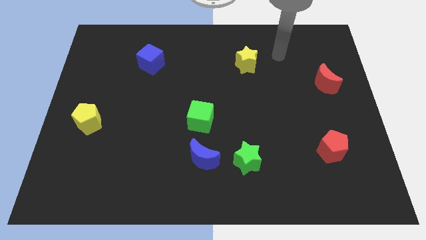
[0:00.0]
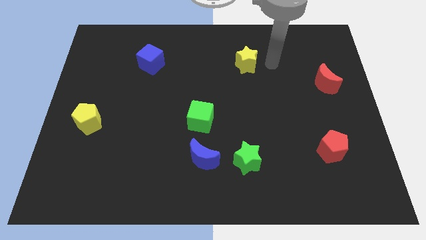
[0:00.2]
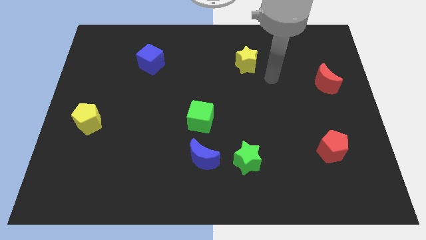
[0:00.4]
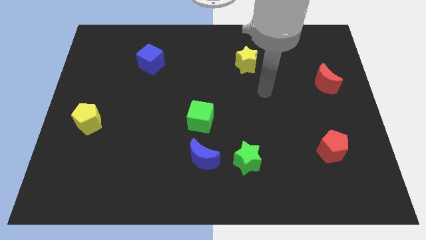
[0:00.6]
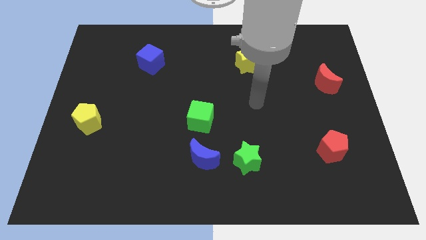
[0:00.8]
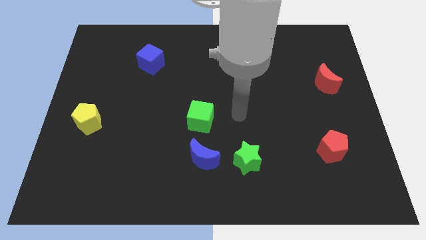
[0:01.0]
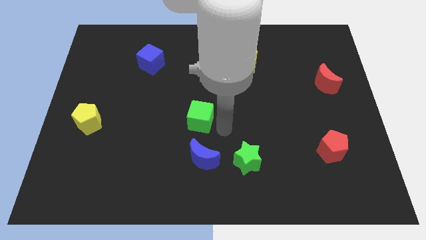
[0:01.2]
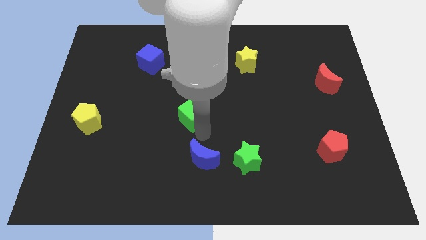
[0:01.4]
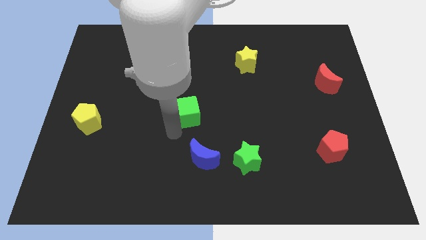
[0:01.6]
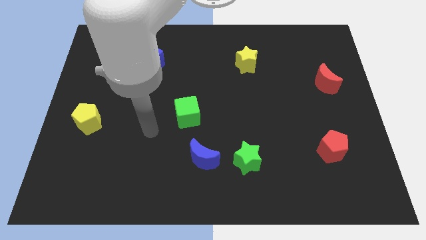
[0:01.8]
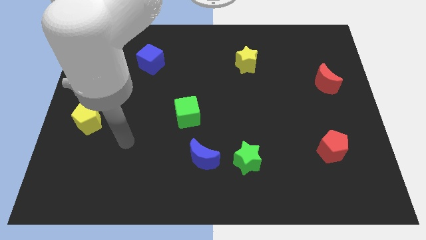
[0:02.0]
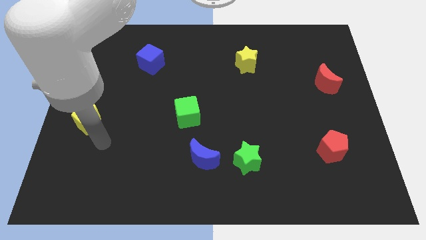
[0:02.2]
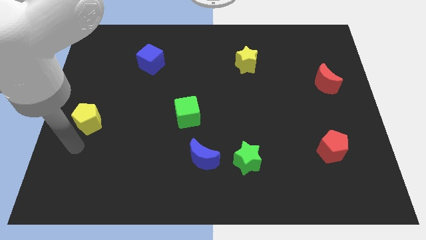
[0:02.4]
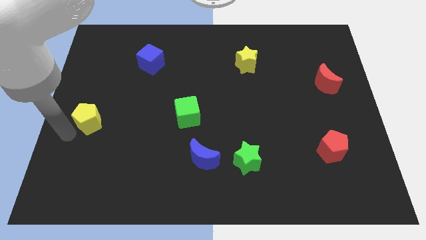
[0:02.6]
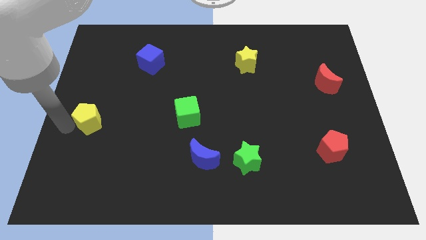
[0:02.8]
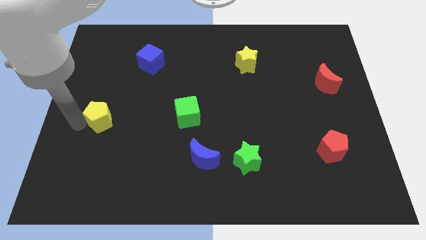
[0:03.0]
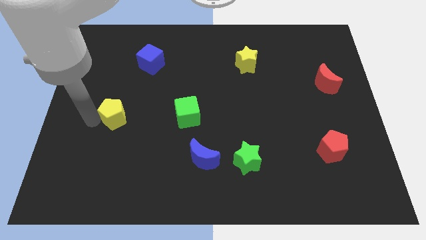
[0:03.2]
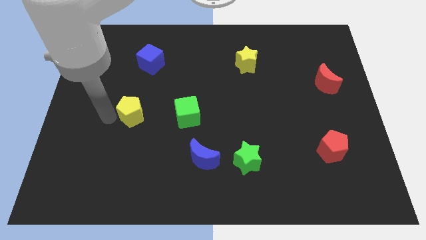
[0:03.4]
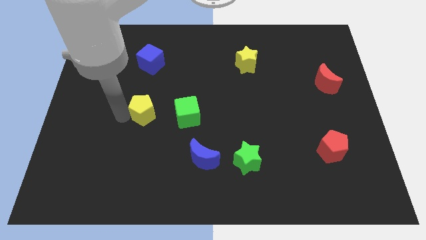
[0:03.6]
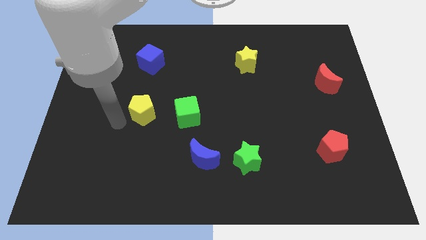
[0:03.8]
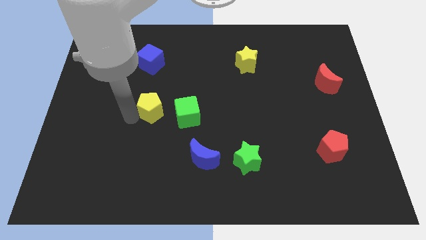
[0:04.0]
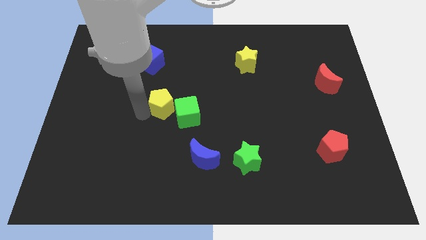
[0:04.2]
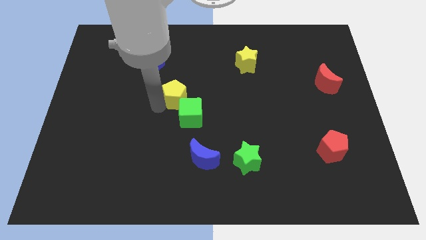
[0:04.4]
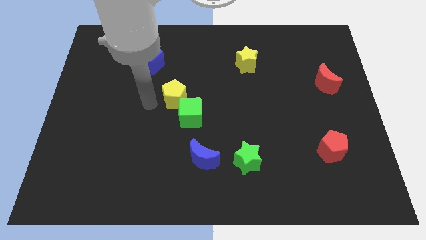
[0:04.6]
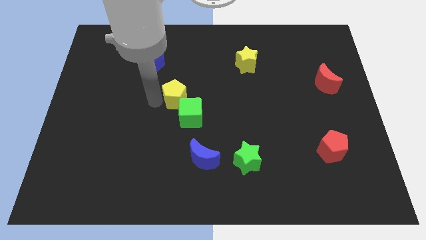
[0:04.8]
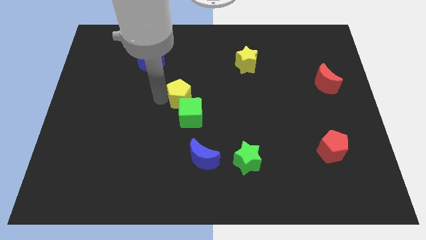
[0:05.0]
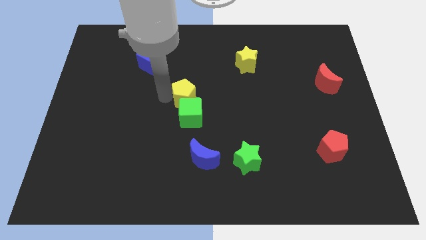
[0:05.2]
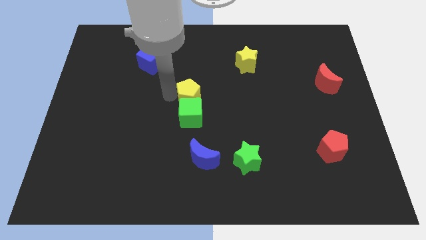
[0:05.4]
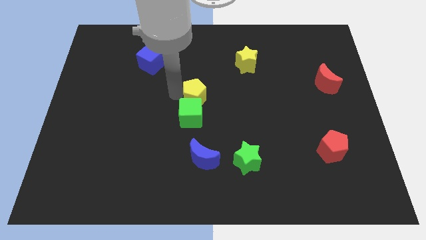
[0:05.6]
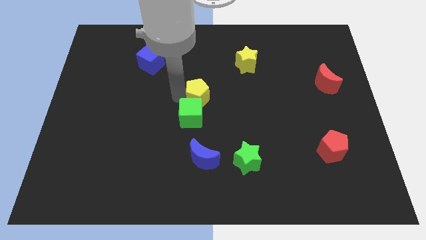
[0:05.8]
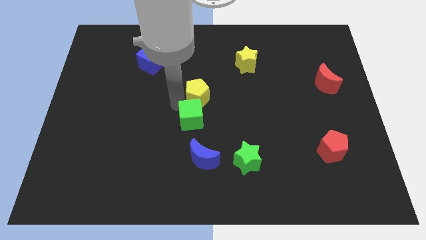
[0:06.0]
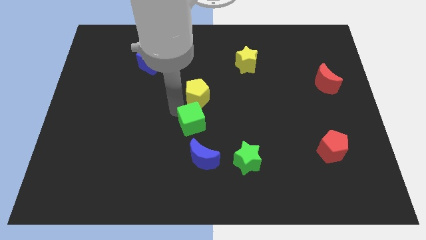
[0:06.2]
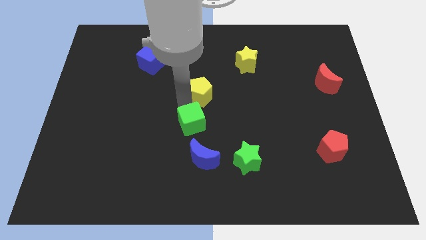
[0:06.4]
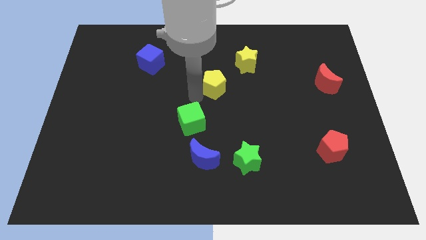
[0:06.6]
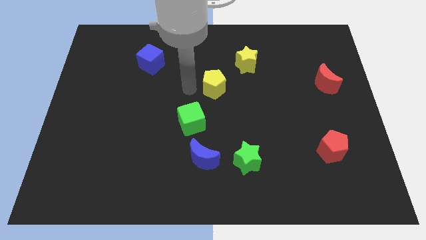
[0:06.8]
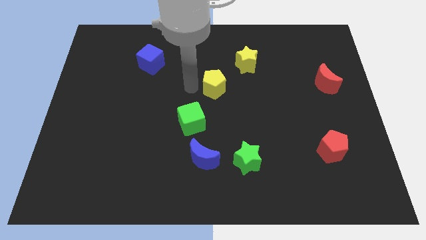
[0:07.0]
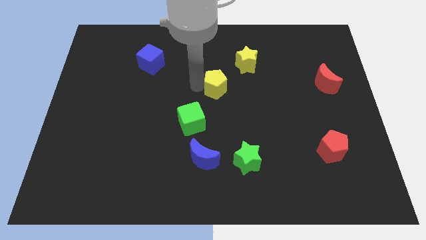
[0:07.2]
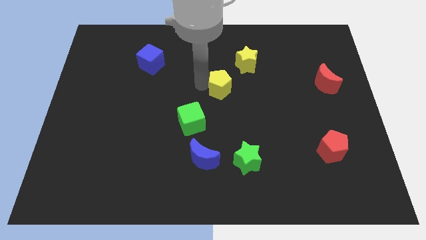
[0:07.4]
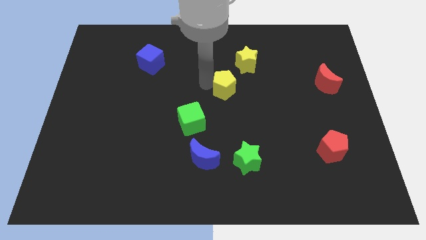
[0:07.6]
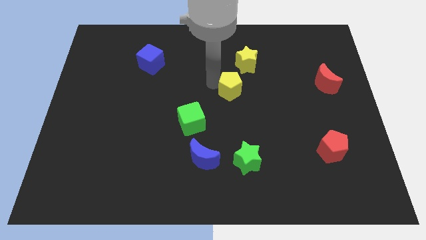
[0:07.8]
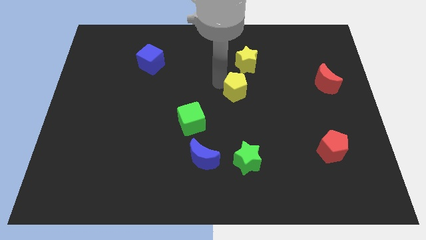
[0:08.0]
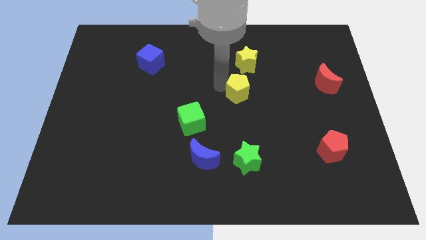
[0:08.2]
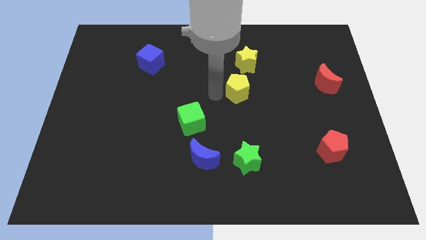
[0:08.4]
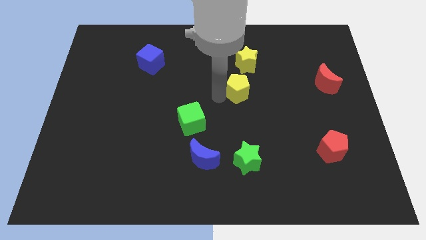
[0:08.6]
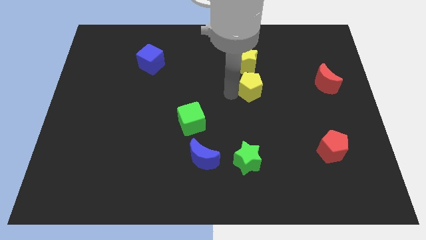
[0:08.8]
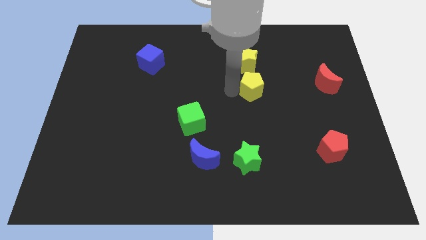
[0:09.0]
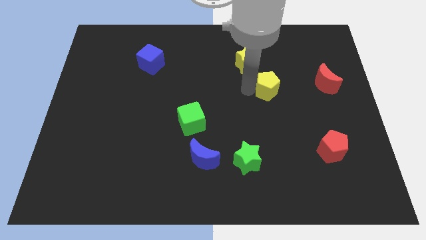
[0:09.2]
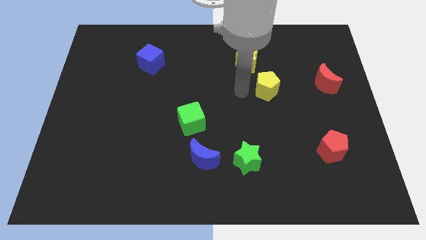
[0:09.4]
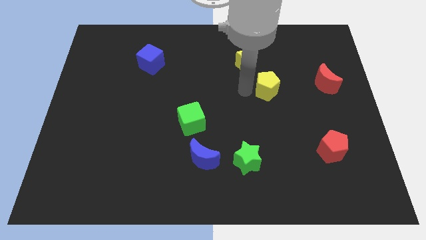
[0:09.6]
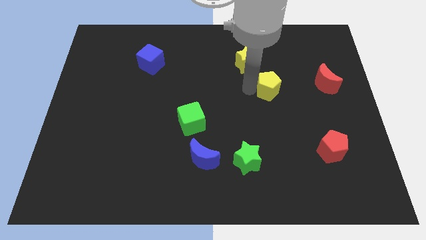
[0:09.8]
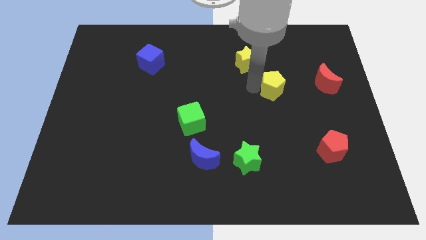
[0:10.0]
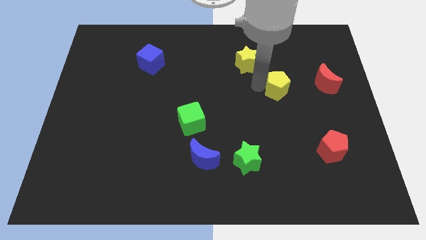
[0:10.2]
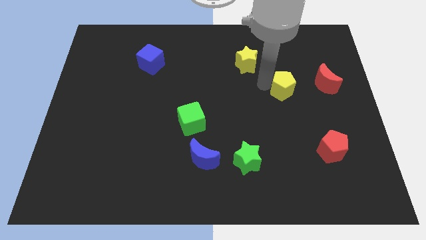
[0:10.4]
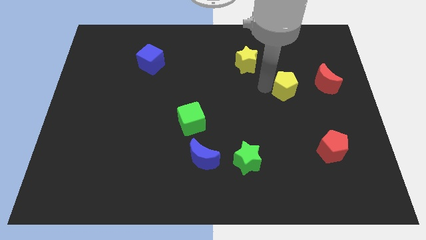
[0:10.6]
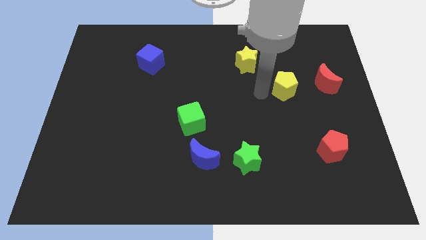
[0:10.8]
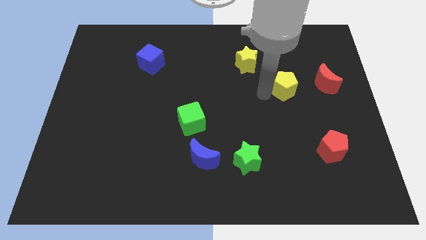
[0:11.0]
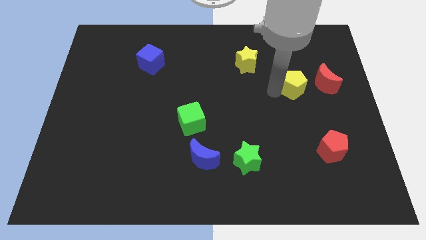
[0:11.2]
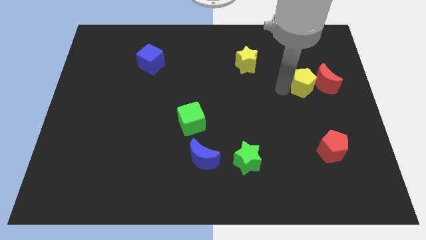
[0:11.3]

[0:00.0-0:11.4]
slide the yellow pentagon close to the red moon
